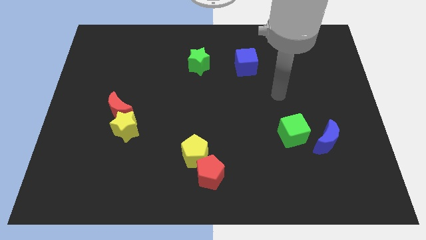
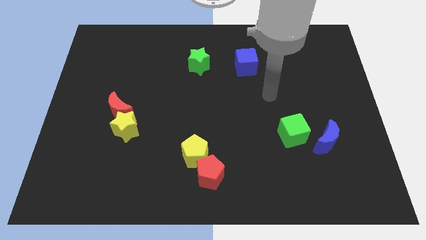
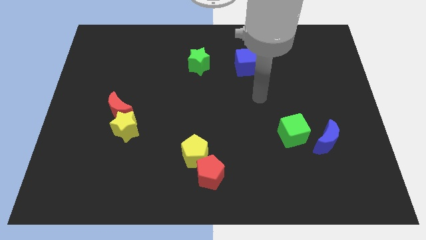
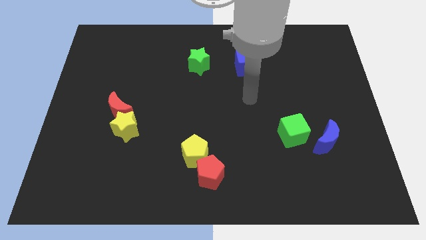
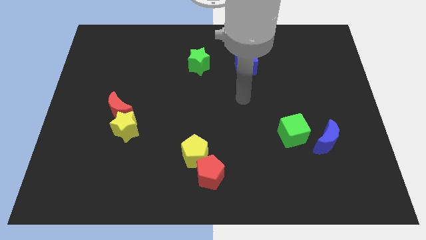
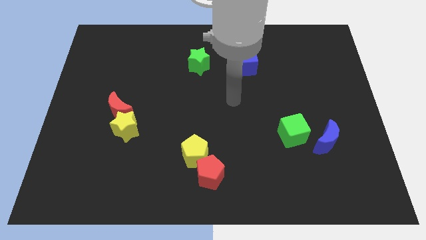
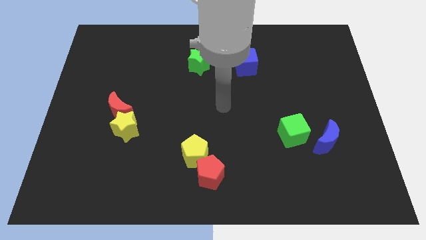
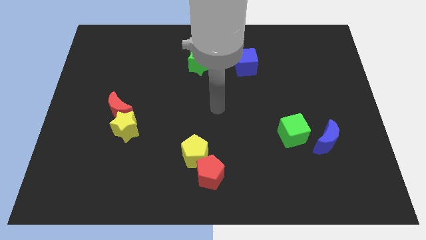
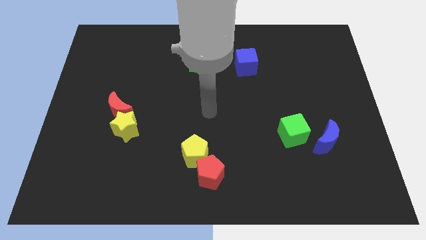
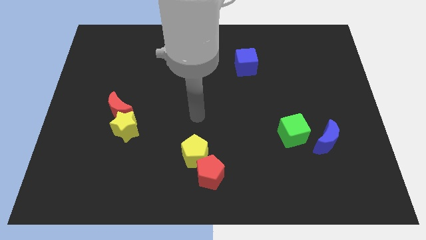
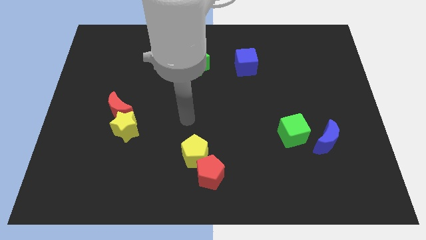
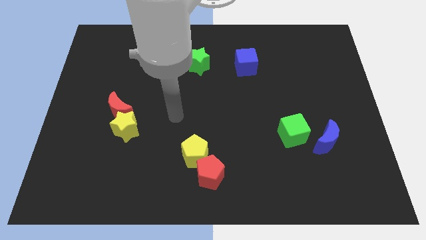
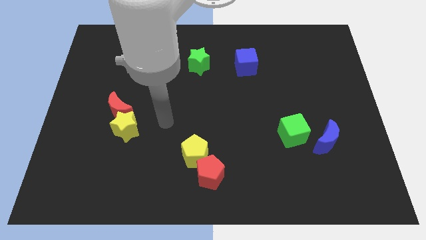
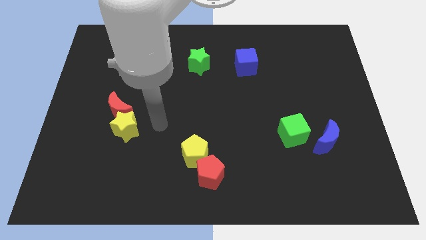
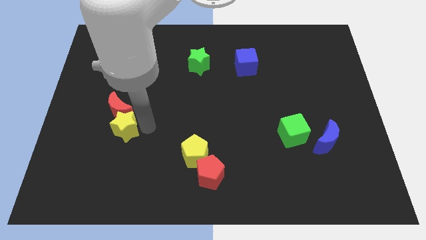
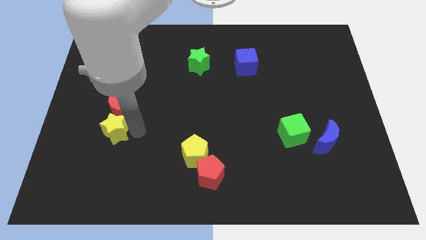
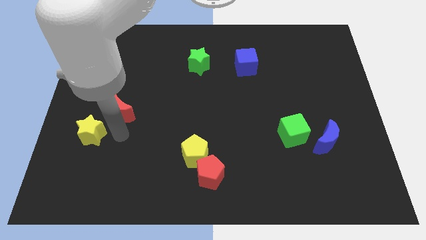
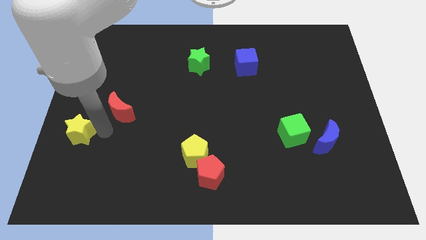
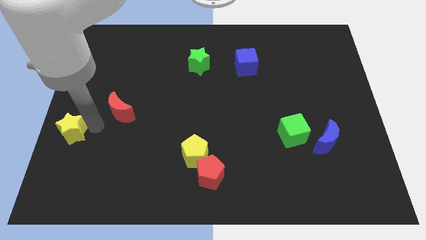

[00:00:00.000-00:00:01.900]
pull the red moon apart from the yellow star

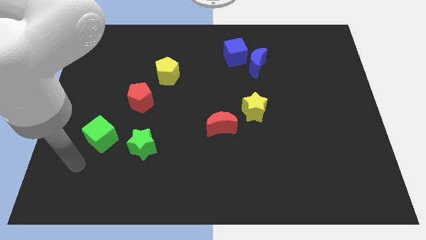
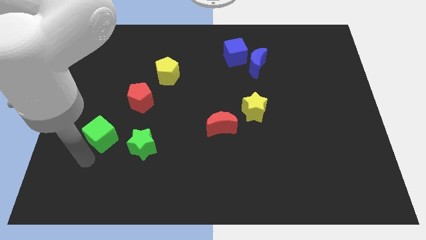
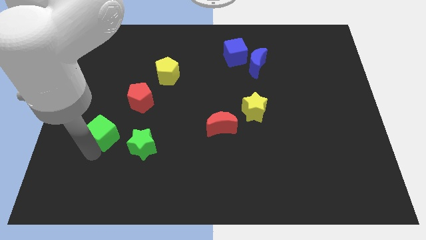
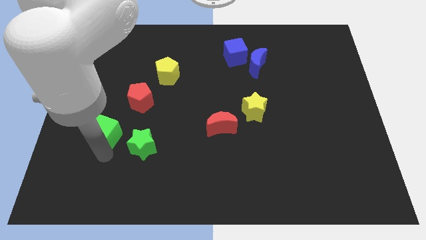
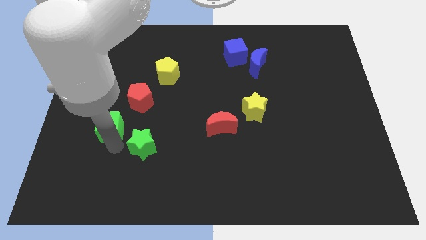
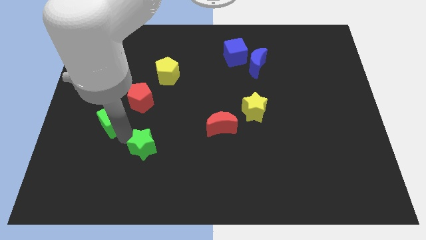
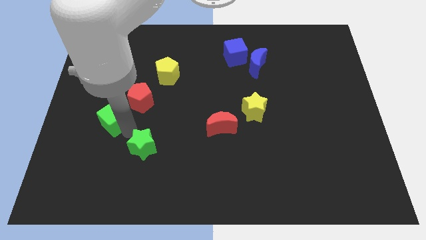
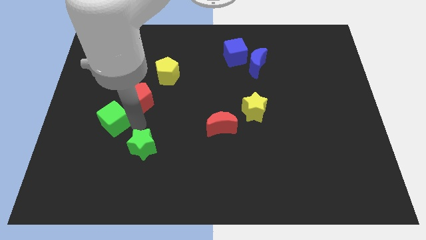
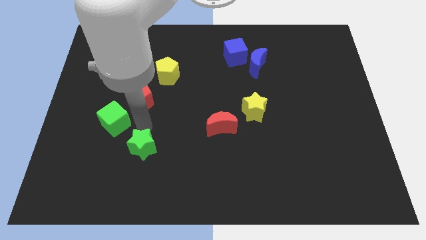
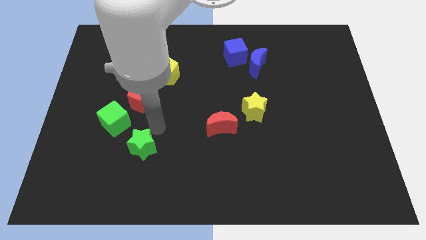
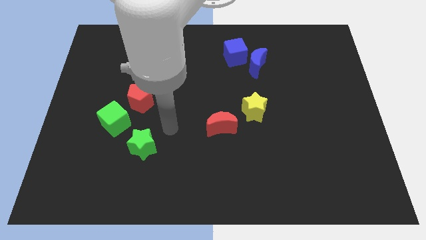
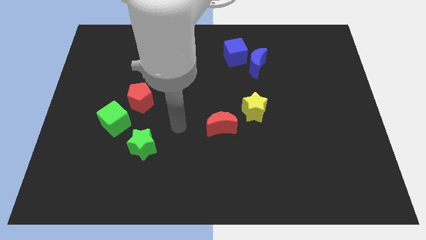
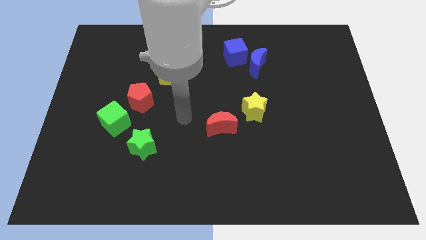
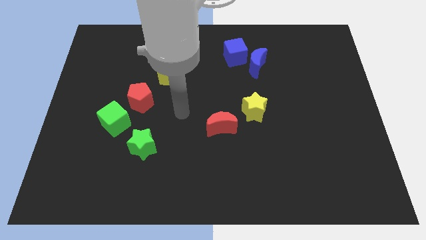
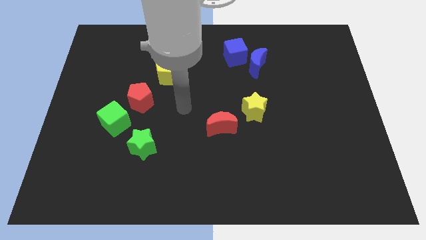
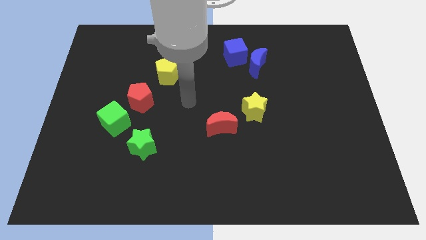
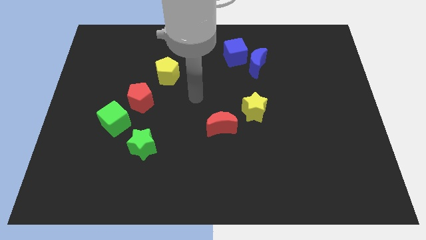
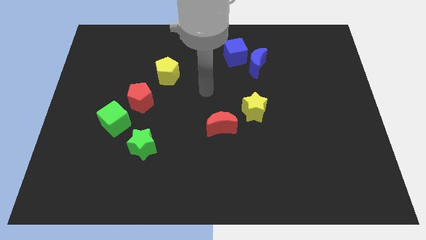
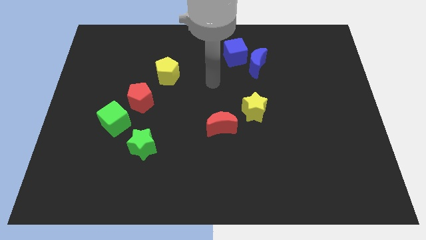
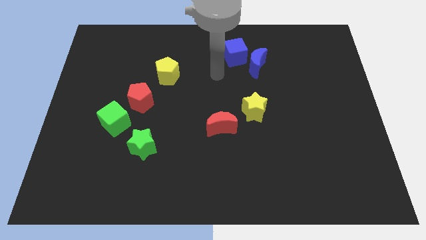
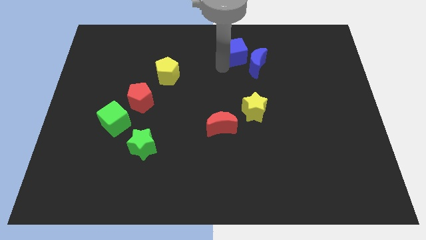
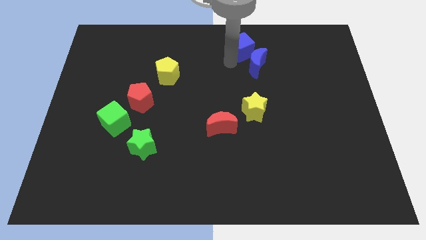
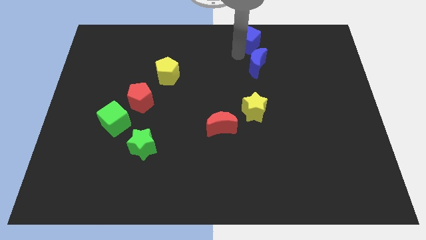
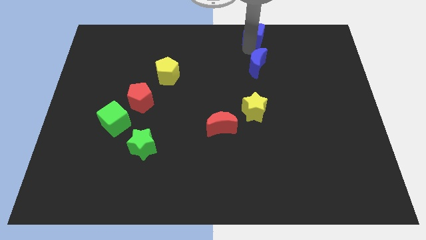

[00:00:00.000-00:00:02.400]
pull the blue moon apart from the blue cube

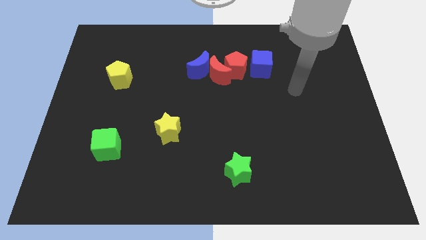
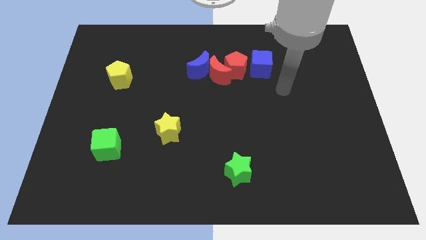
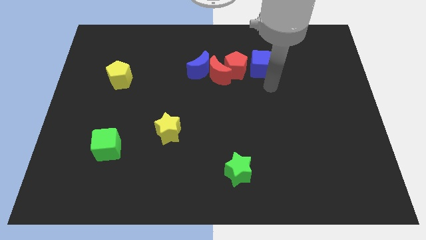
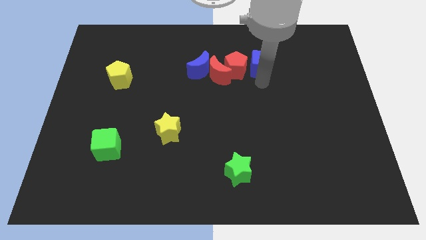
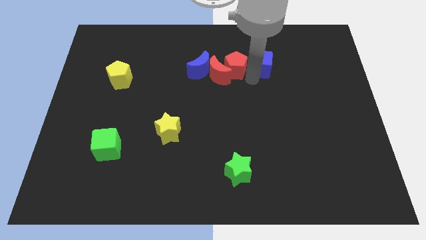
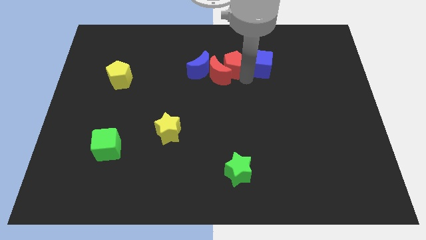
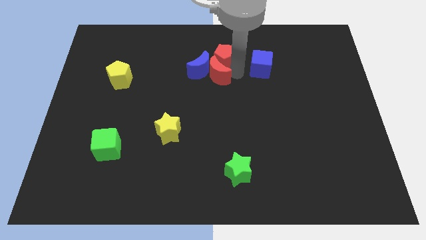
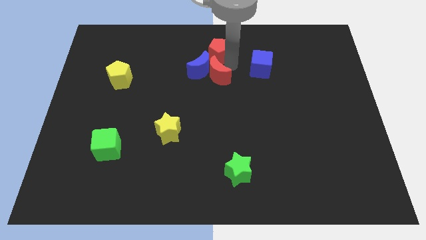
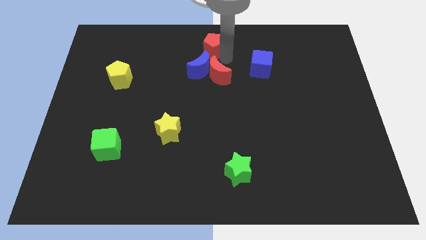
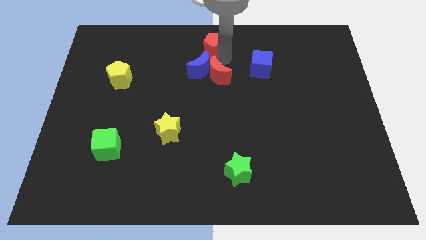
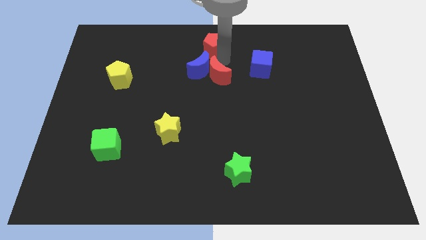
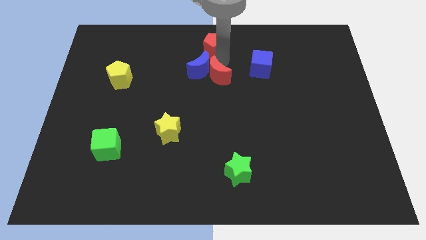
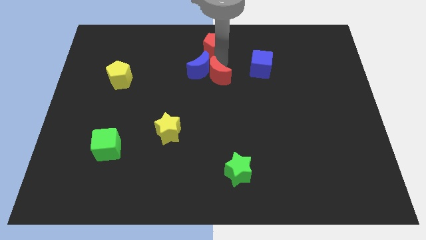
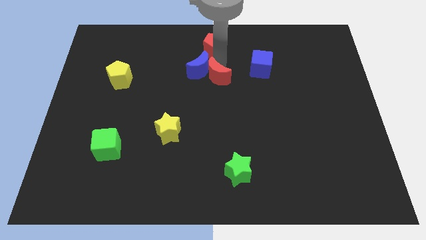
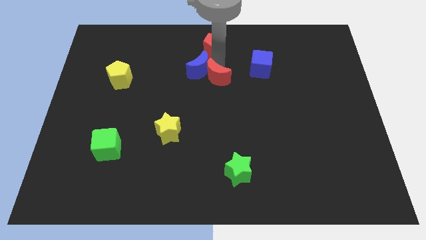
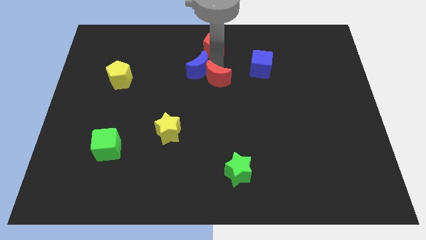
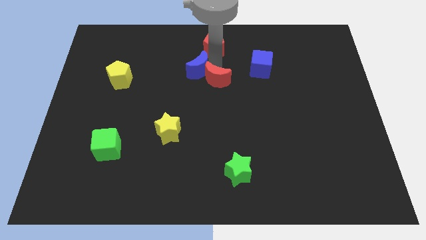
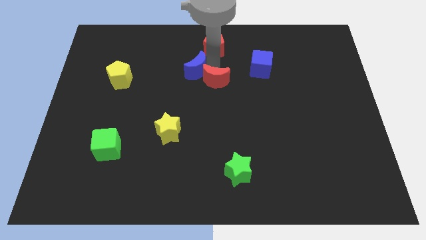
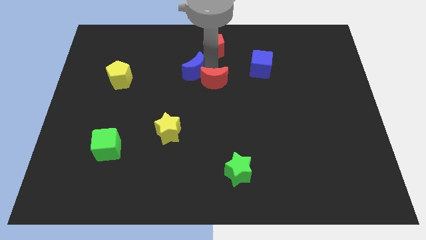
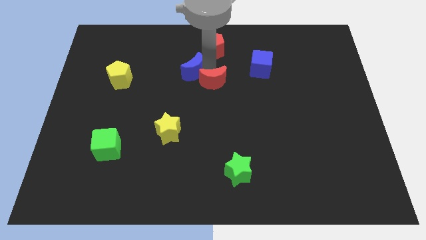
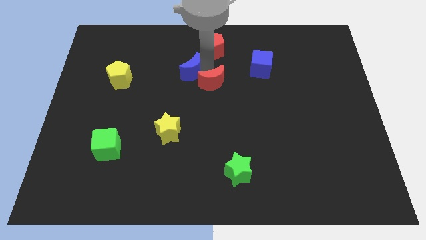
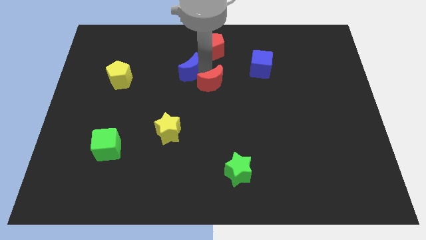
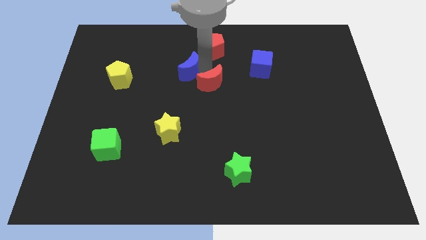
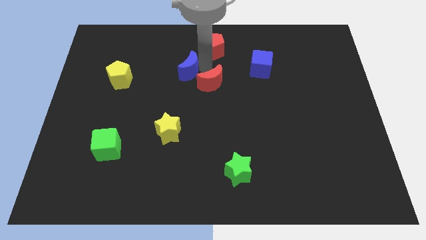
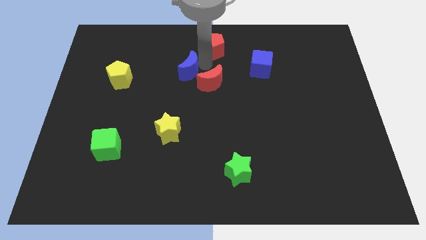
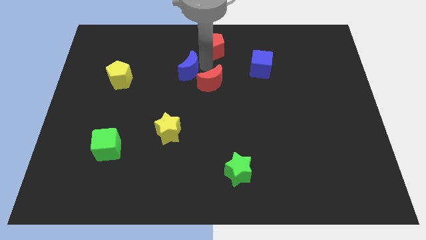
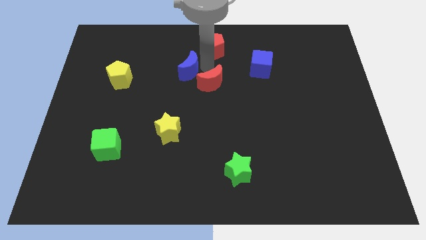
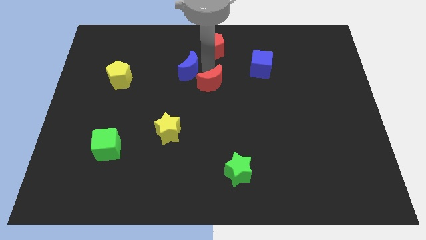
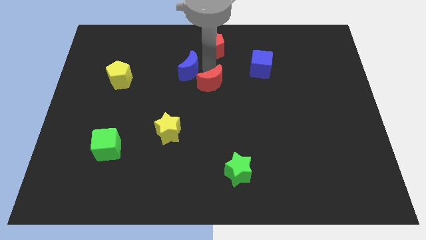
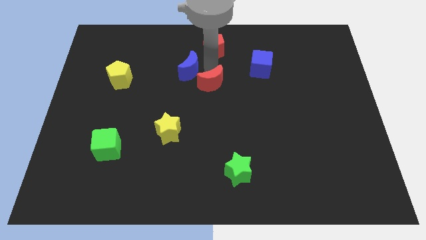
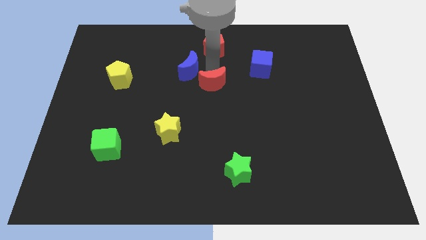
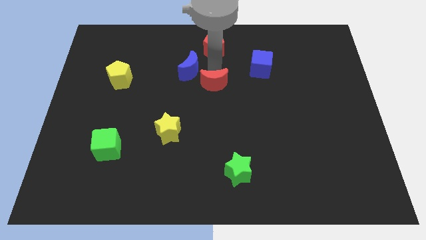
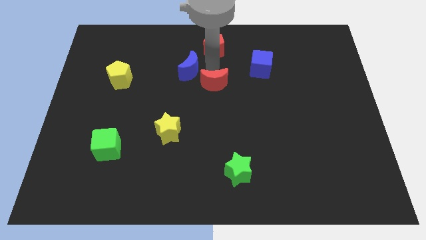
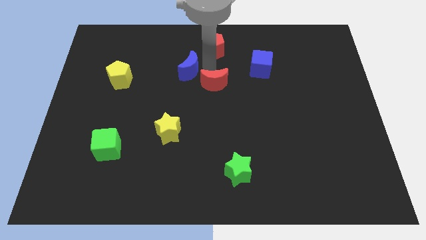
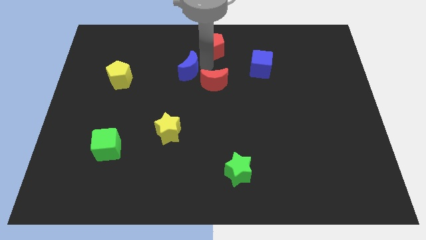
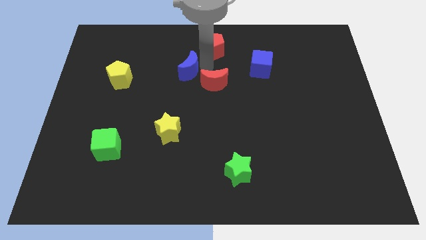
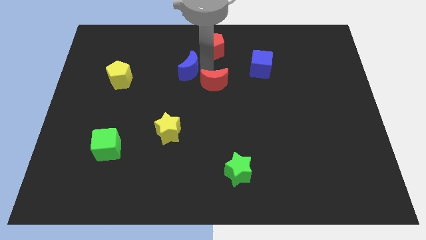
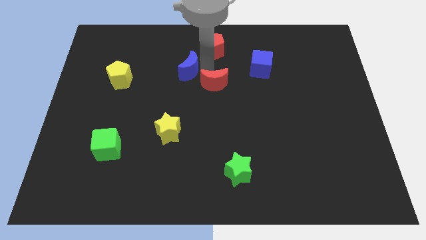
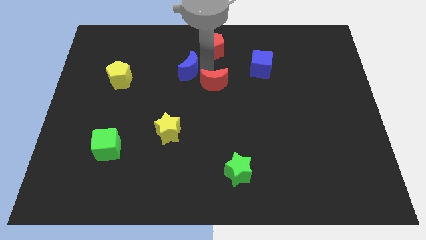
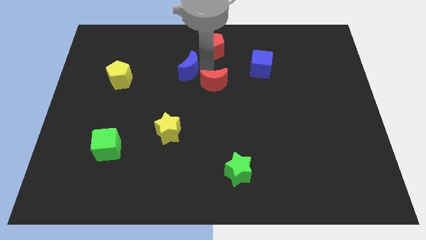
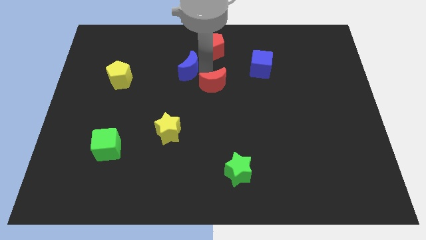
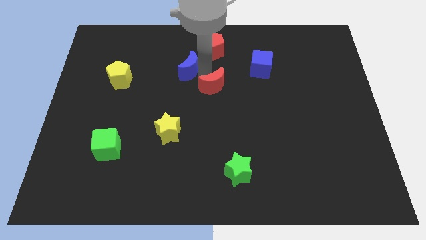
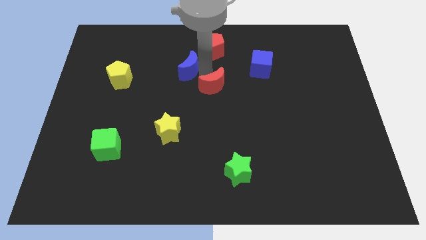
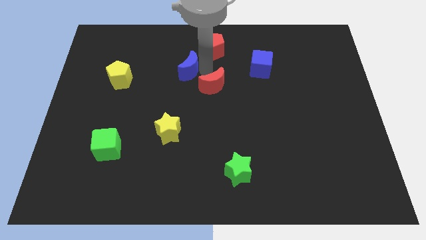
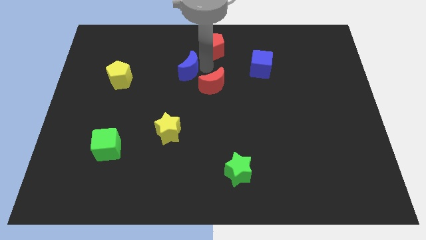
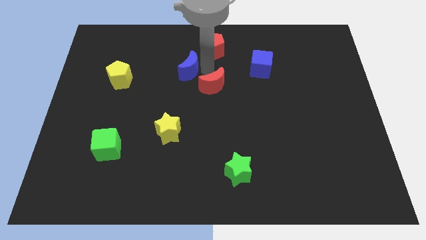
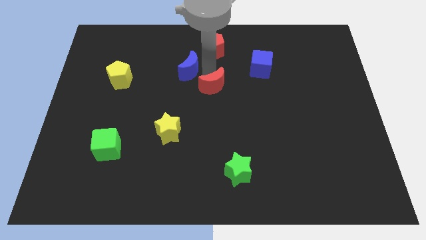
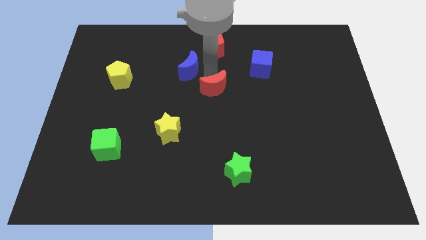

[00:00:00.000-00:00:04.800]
separate the red moon from the blue moon and red pentagon

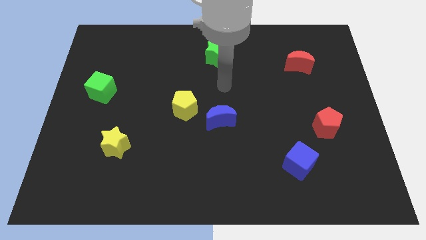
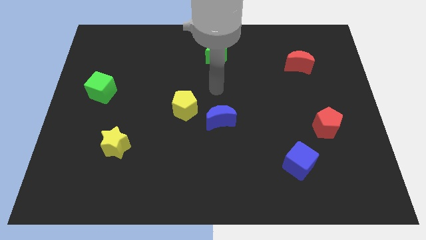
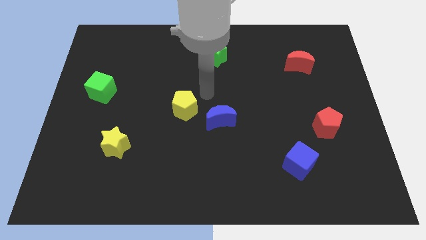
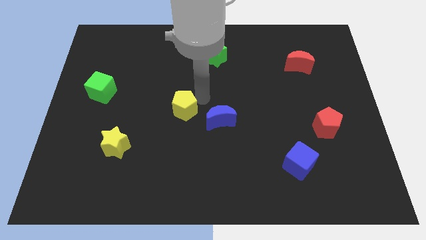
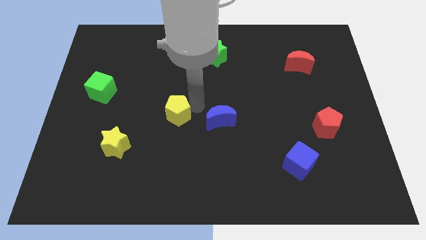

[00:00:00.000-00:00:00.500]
move the blue moon away from the yellow pentagon
